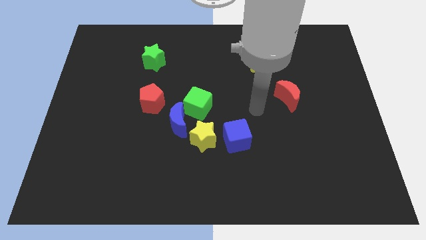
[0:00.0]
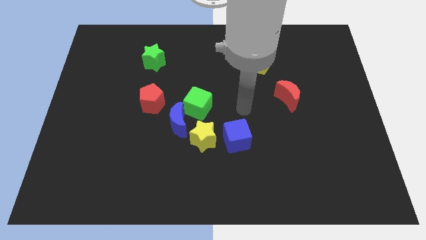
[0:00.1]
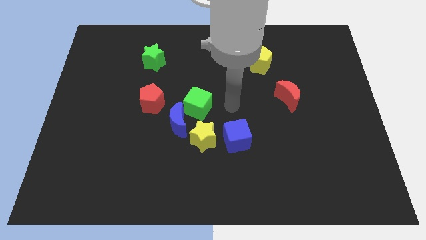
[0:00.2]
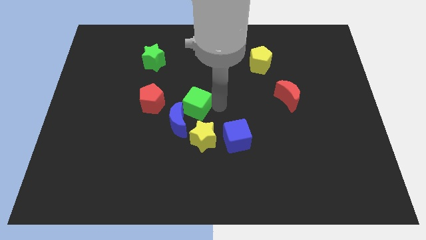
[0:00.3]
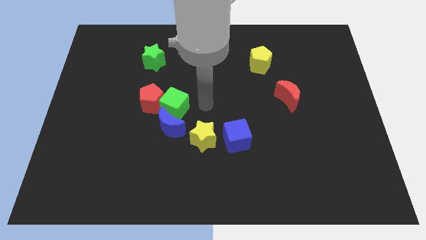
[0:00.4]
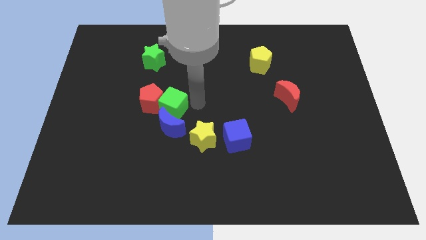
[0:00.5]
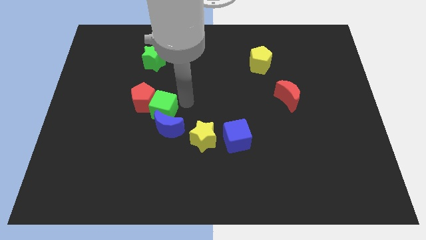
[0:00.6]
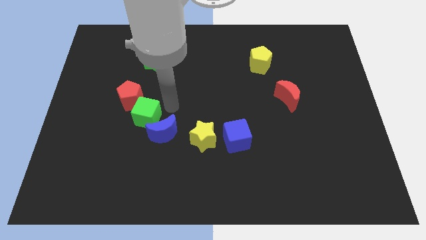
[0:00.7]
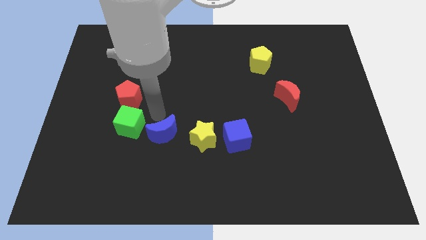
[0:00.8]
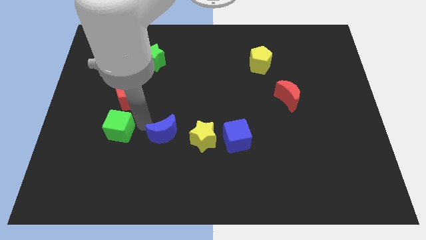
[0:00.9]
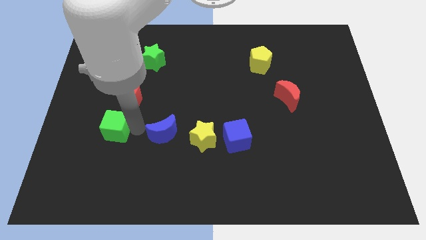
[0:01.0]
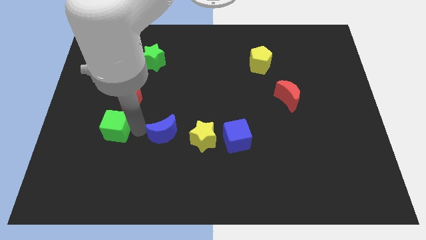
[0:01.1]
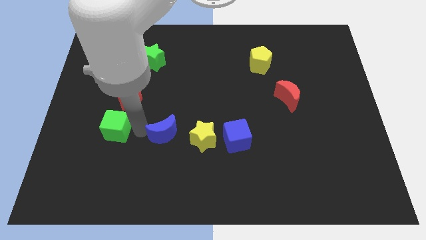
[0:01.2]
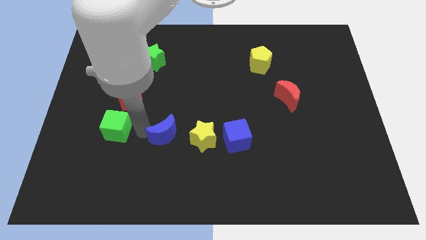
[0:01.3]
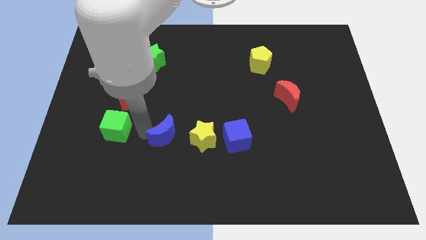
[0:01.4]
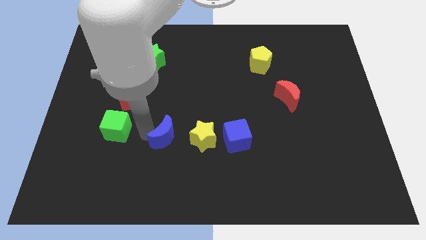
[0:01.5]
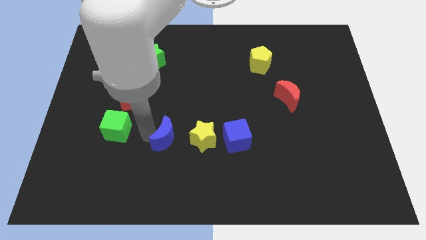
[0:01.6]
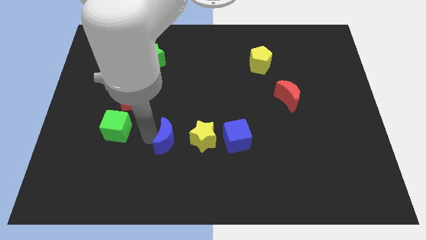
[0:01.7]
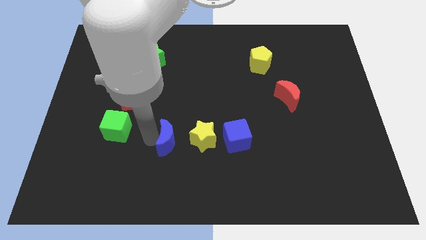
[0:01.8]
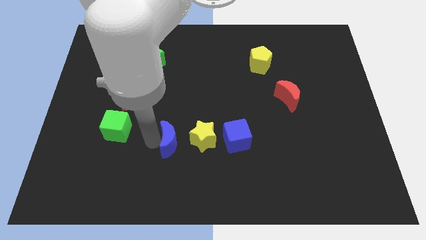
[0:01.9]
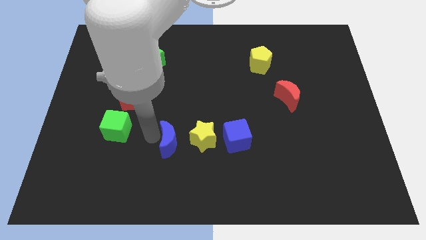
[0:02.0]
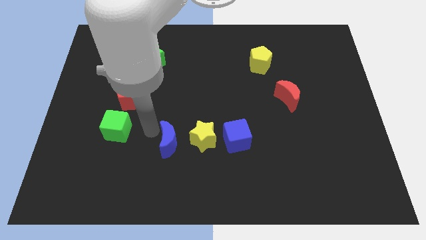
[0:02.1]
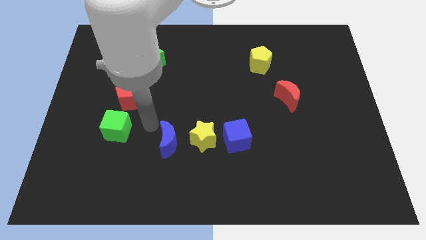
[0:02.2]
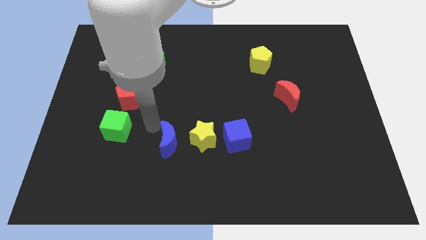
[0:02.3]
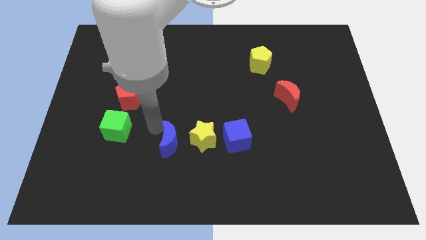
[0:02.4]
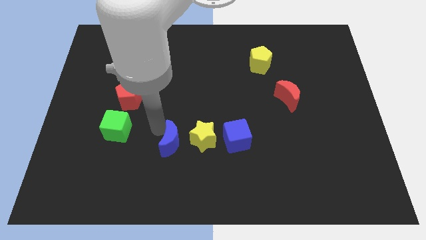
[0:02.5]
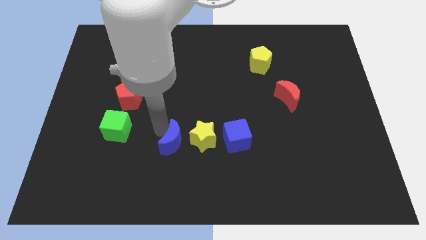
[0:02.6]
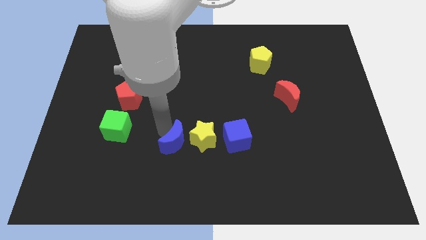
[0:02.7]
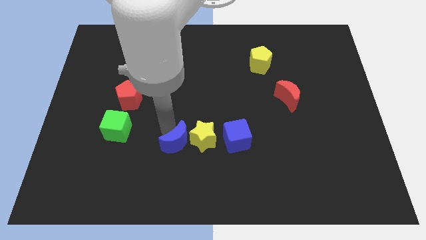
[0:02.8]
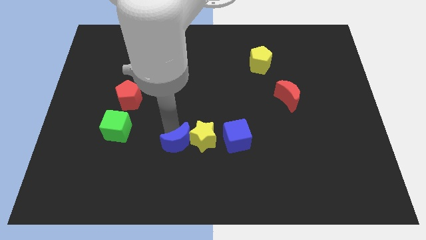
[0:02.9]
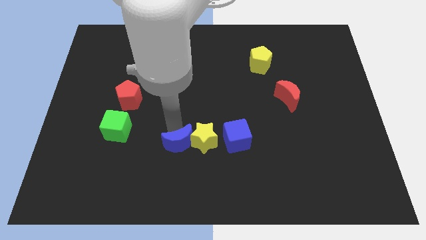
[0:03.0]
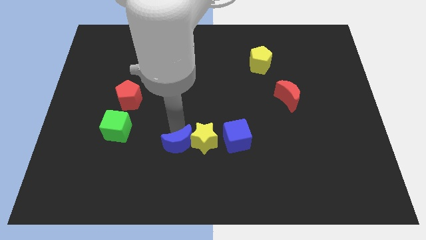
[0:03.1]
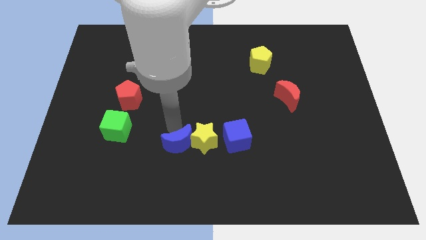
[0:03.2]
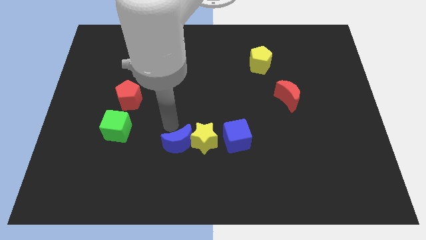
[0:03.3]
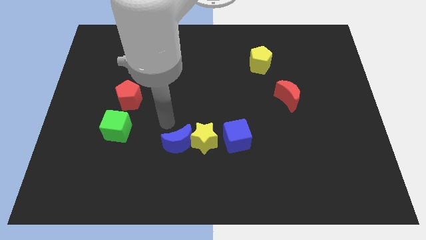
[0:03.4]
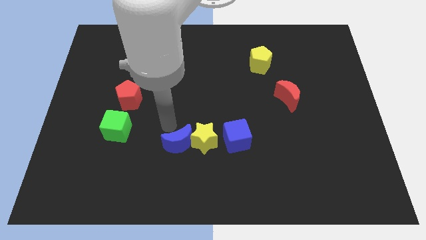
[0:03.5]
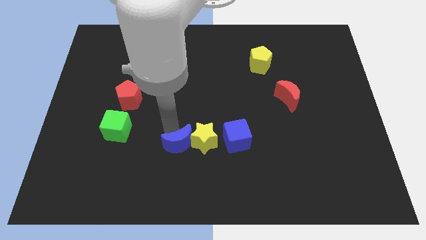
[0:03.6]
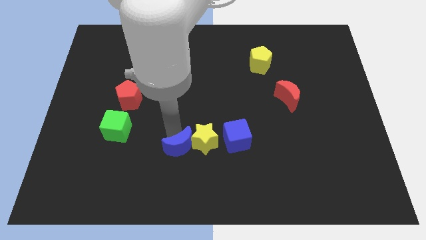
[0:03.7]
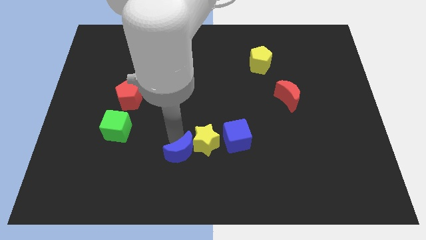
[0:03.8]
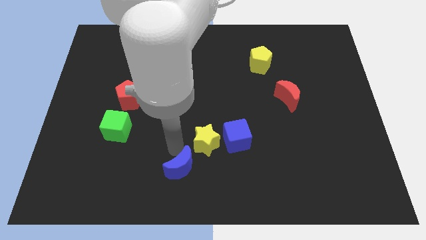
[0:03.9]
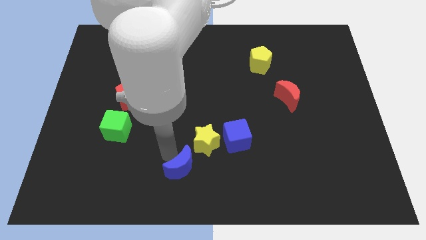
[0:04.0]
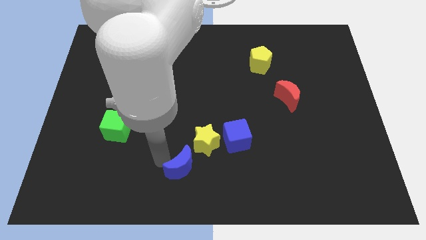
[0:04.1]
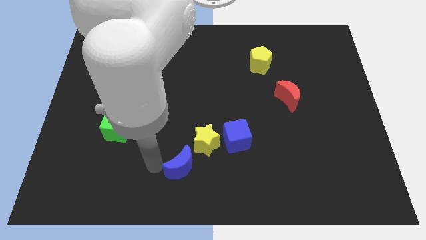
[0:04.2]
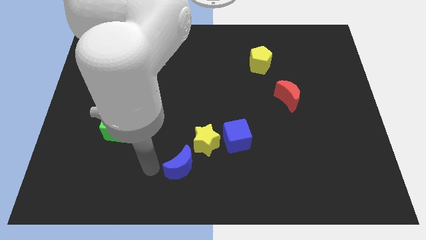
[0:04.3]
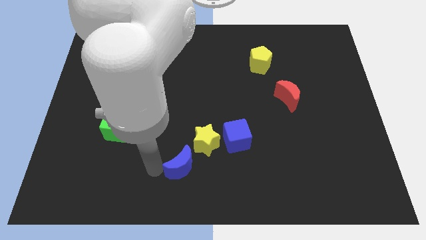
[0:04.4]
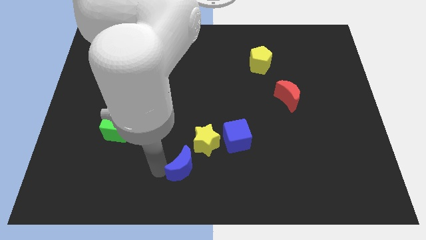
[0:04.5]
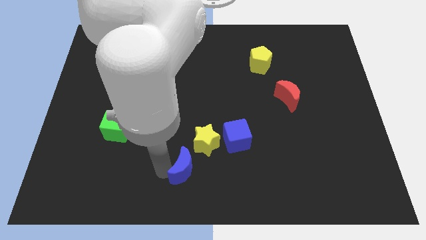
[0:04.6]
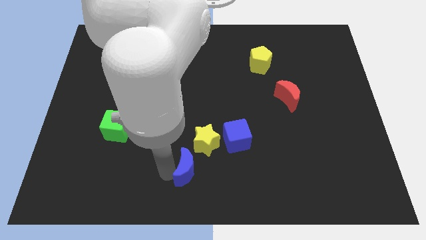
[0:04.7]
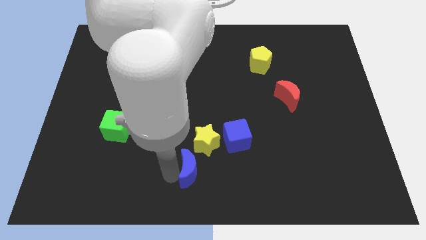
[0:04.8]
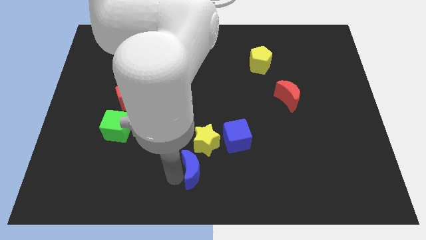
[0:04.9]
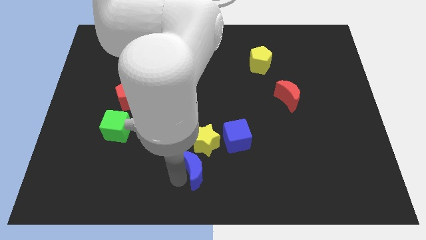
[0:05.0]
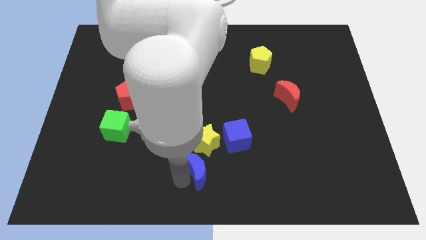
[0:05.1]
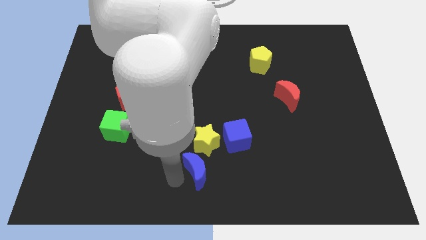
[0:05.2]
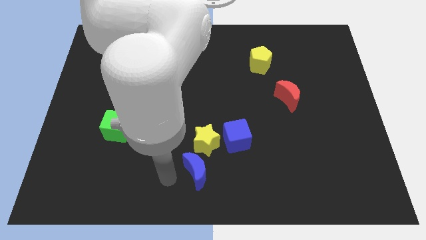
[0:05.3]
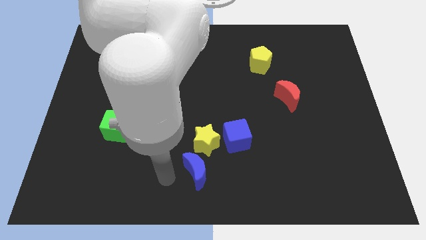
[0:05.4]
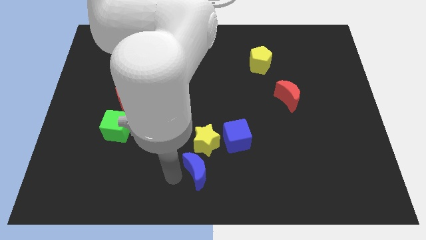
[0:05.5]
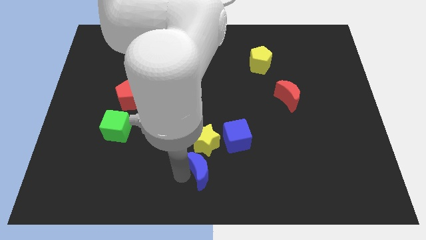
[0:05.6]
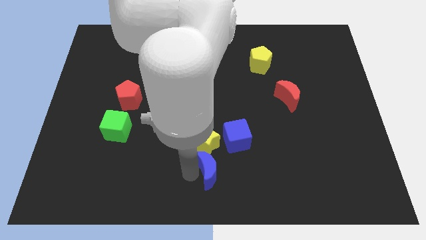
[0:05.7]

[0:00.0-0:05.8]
put the blue moon to the bottom right side of the yellow star

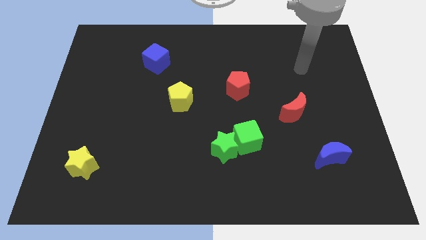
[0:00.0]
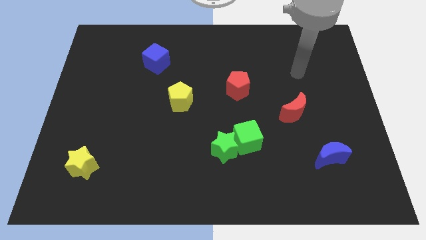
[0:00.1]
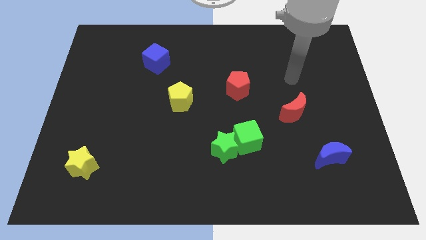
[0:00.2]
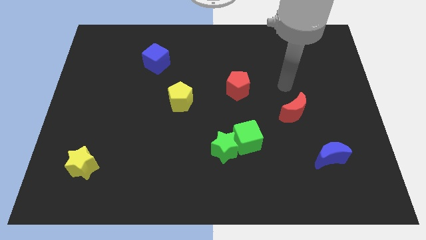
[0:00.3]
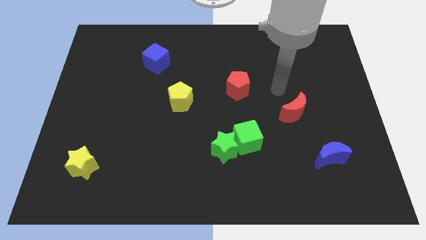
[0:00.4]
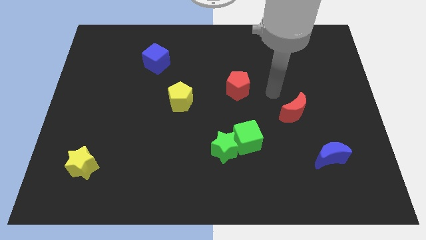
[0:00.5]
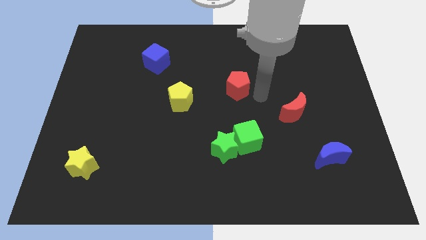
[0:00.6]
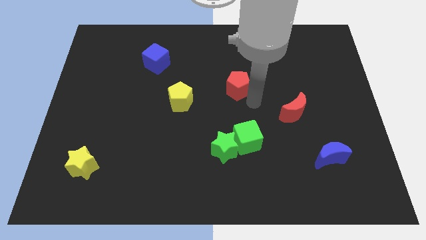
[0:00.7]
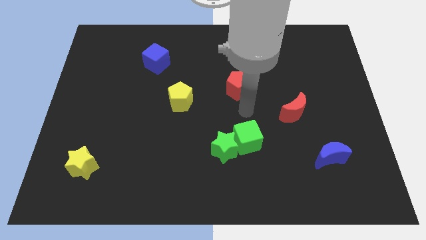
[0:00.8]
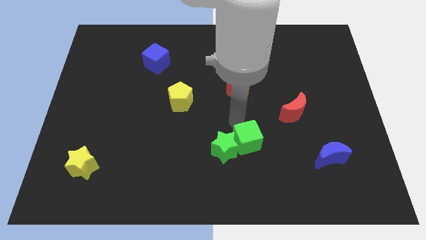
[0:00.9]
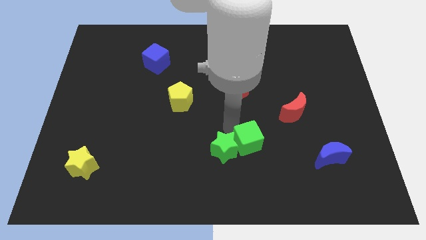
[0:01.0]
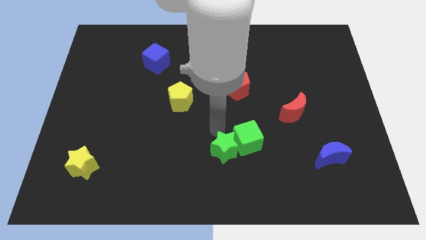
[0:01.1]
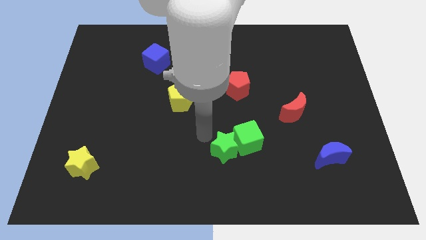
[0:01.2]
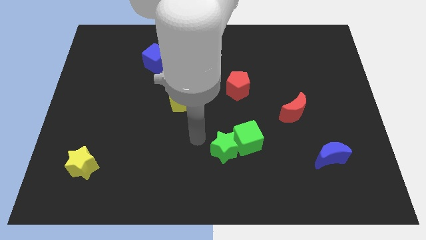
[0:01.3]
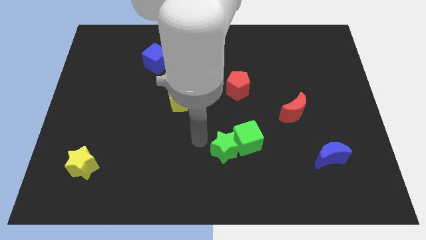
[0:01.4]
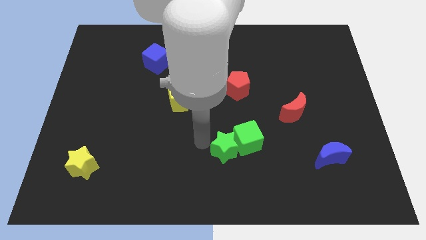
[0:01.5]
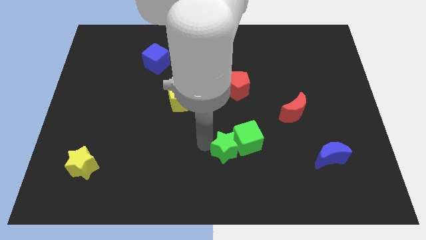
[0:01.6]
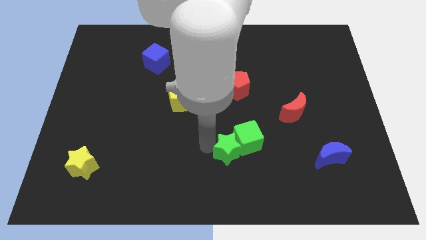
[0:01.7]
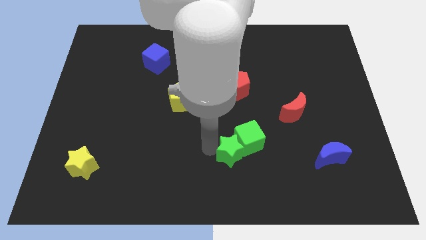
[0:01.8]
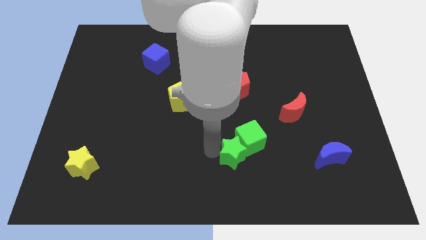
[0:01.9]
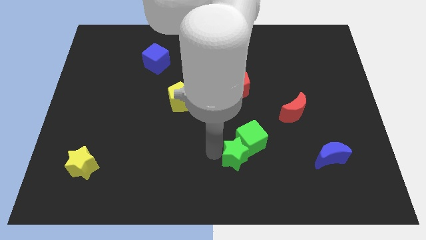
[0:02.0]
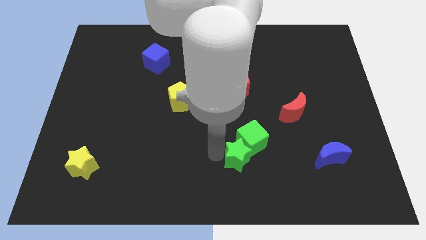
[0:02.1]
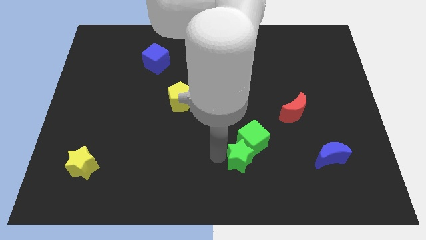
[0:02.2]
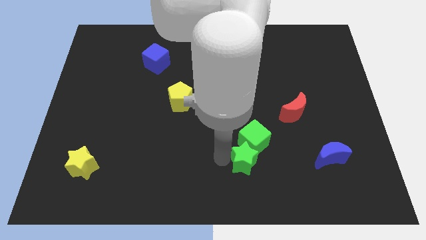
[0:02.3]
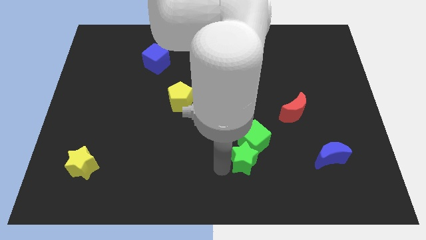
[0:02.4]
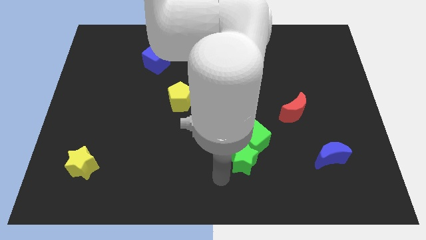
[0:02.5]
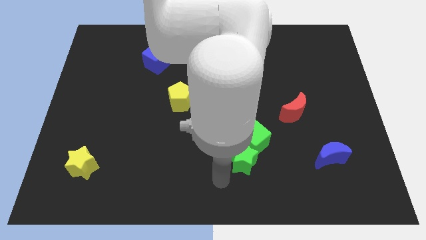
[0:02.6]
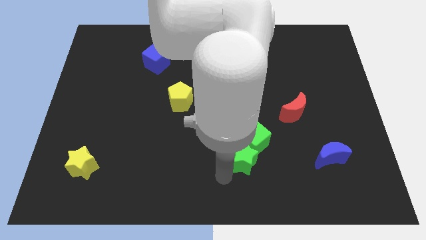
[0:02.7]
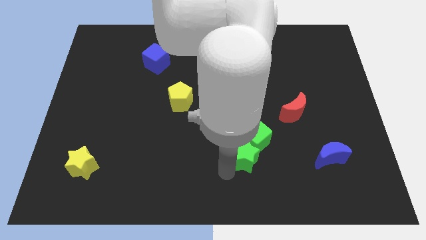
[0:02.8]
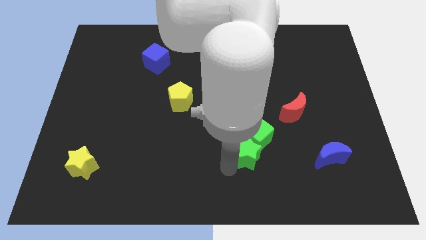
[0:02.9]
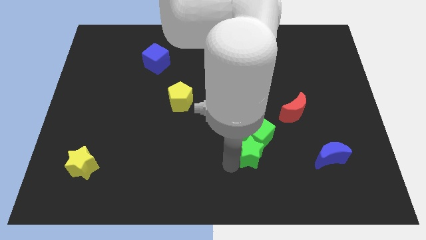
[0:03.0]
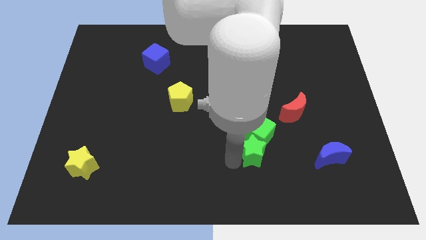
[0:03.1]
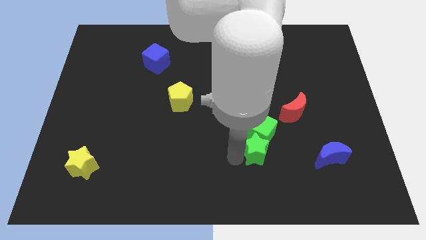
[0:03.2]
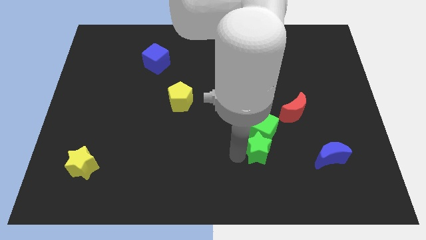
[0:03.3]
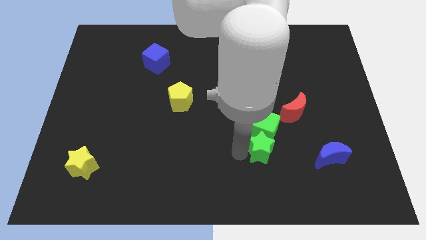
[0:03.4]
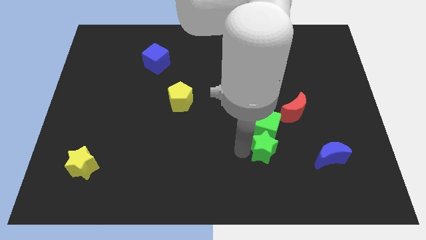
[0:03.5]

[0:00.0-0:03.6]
move the green star to the bottom left of the red moon
